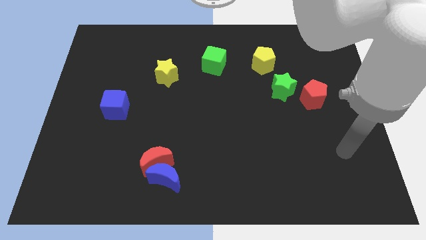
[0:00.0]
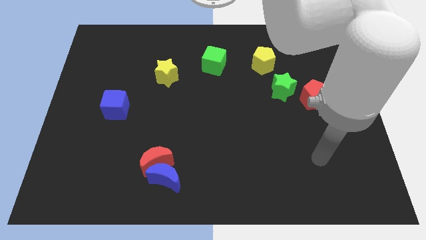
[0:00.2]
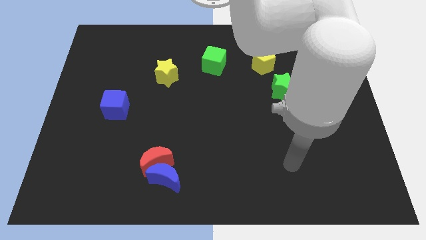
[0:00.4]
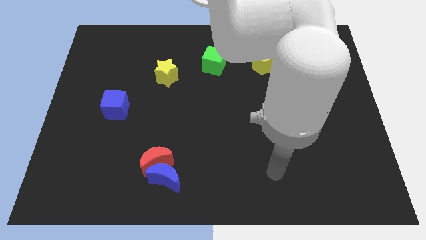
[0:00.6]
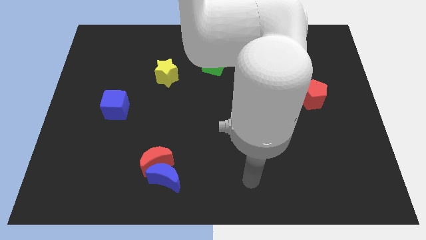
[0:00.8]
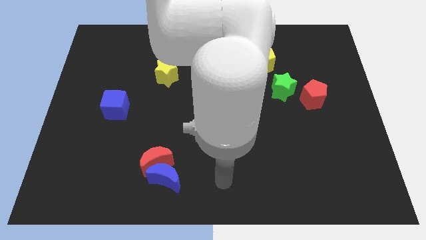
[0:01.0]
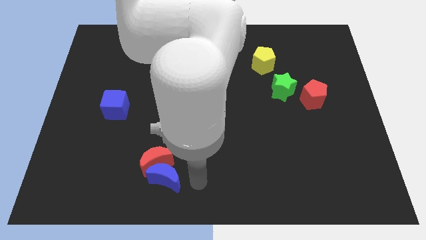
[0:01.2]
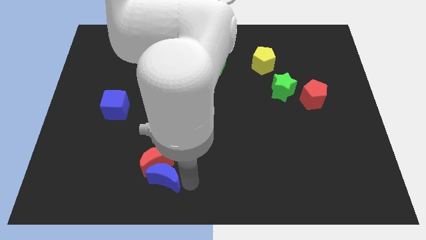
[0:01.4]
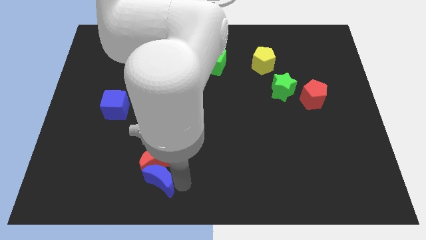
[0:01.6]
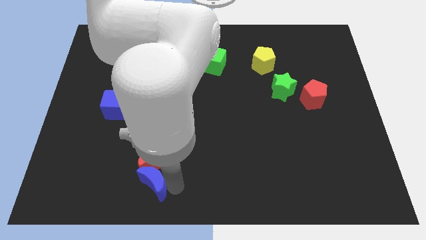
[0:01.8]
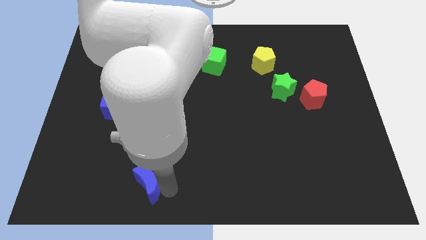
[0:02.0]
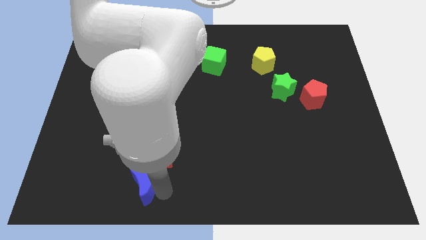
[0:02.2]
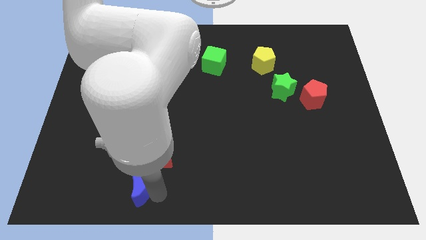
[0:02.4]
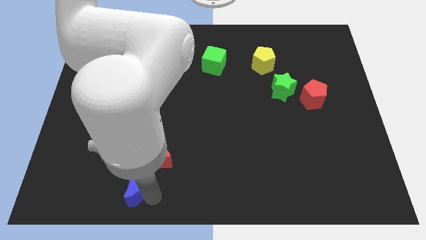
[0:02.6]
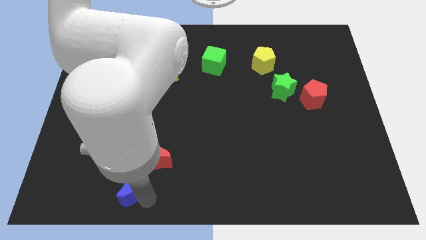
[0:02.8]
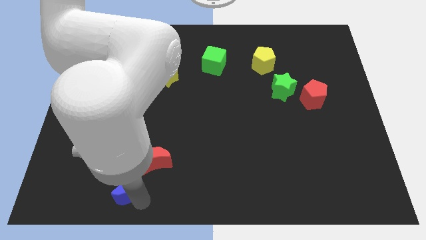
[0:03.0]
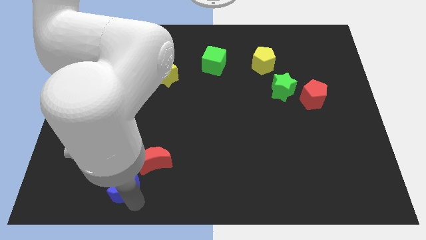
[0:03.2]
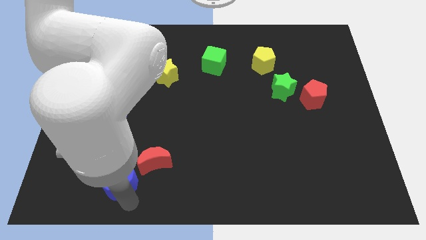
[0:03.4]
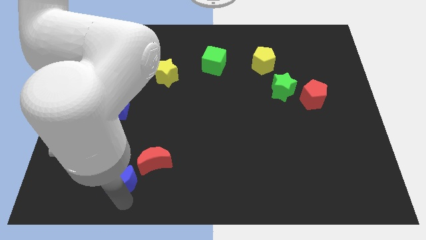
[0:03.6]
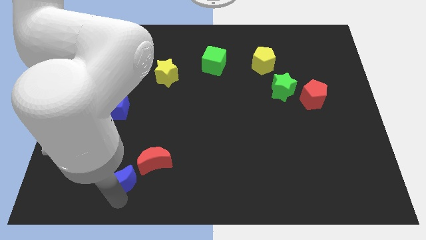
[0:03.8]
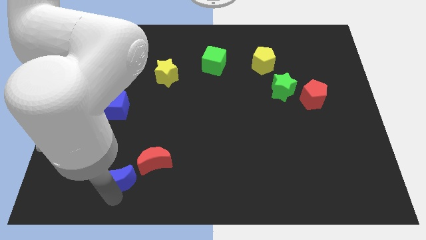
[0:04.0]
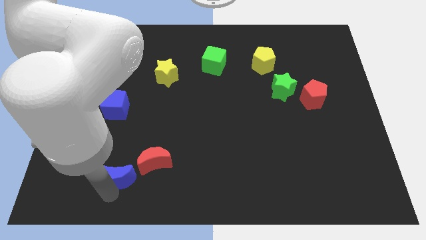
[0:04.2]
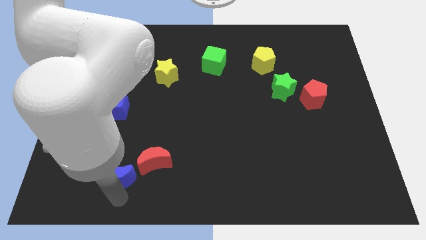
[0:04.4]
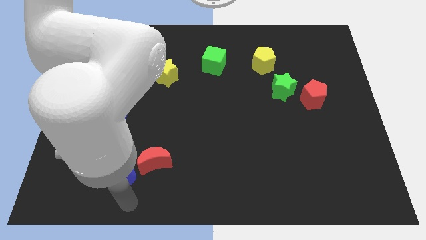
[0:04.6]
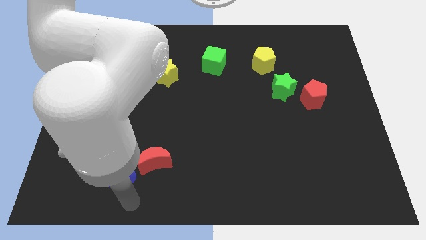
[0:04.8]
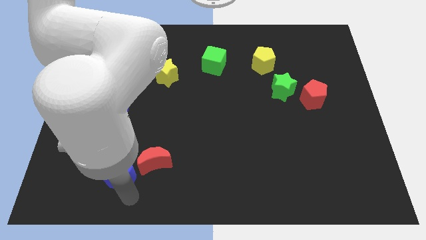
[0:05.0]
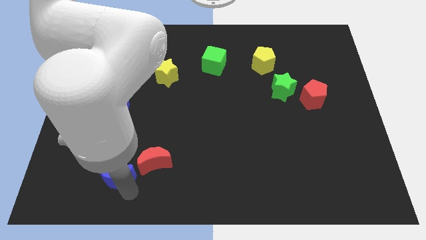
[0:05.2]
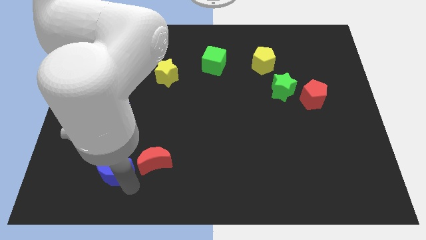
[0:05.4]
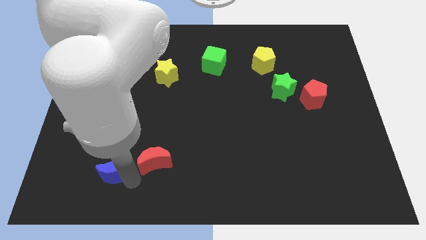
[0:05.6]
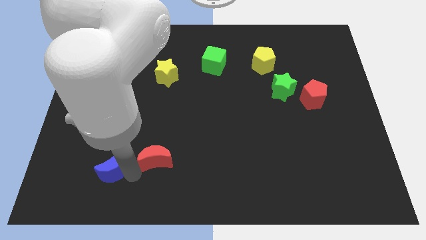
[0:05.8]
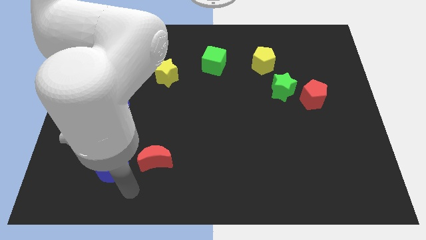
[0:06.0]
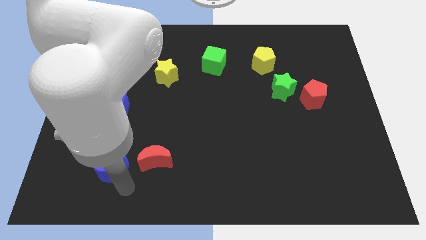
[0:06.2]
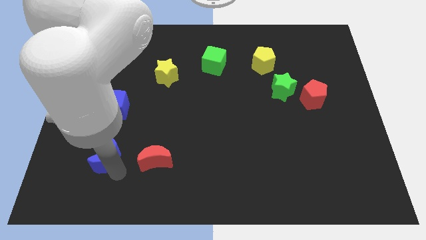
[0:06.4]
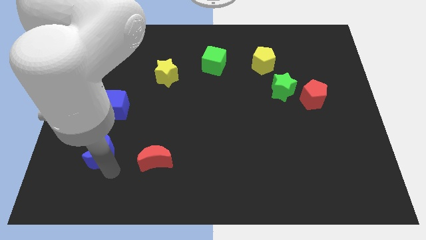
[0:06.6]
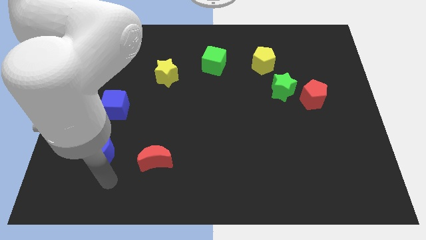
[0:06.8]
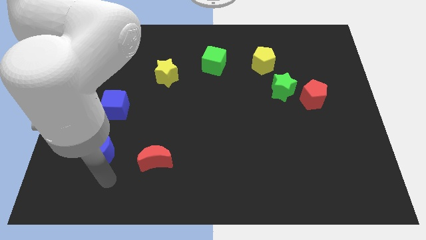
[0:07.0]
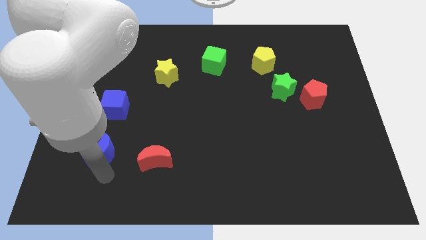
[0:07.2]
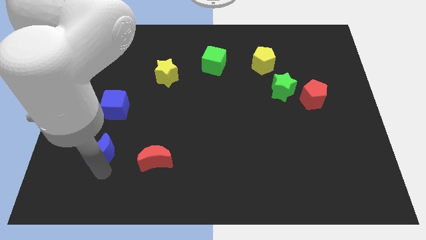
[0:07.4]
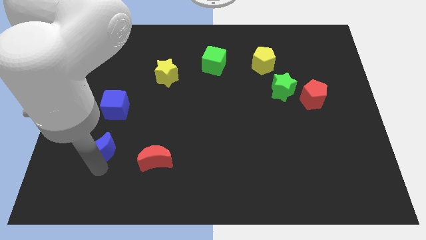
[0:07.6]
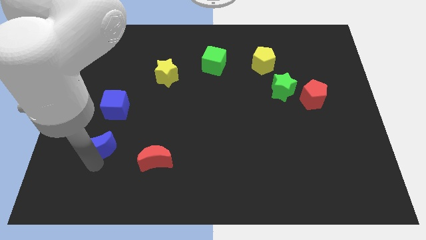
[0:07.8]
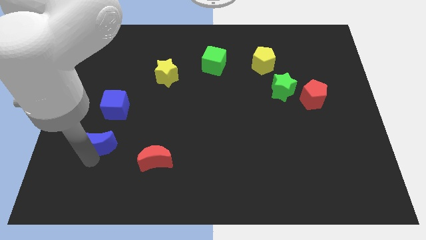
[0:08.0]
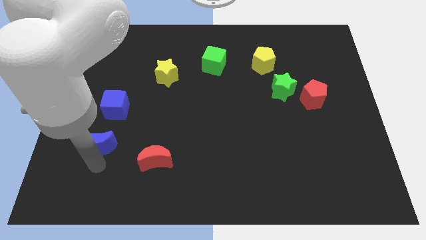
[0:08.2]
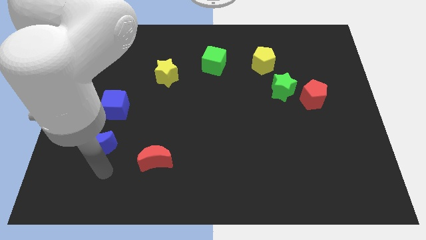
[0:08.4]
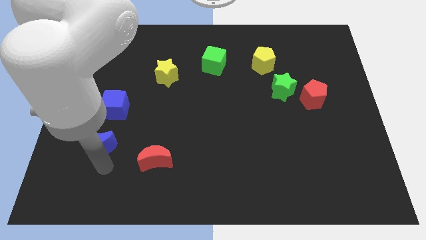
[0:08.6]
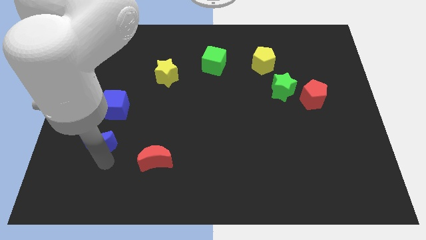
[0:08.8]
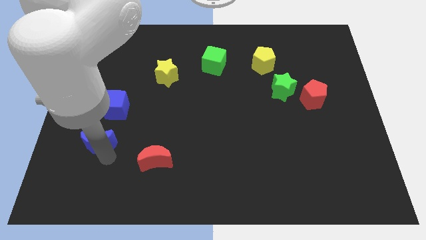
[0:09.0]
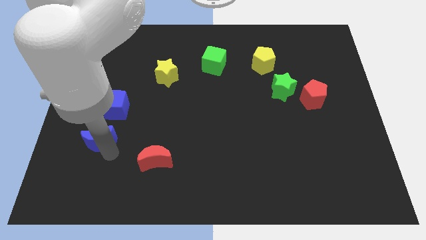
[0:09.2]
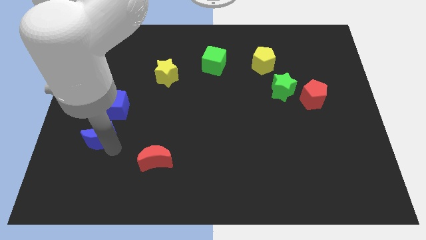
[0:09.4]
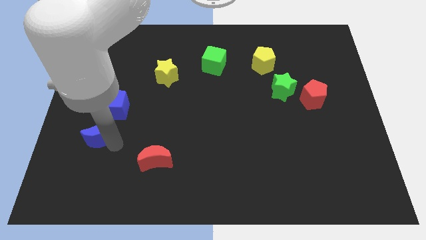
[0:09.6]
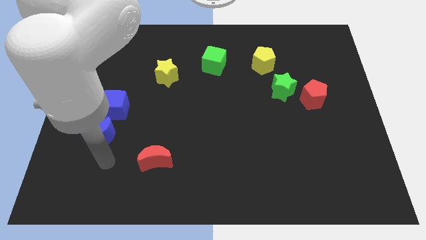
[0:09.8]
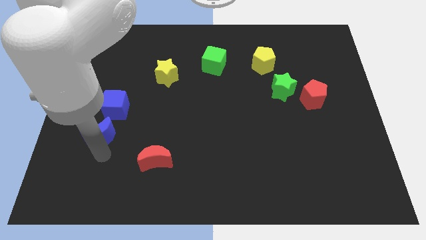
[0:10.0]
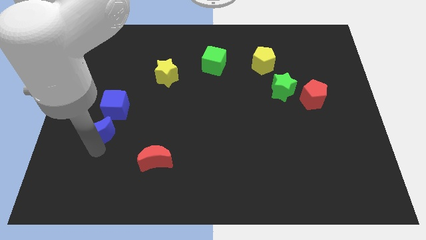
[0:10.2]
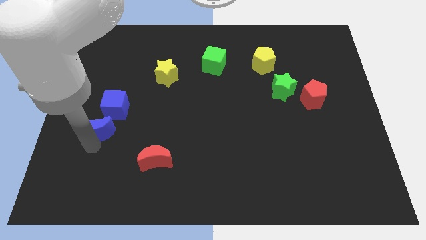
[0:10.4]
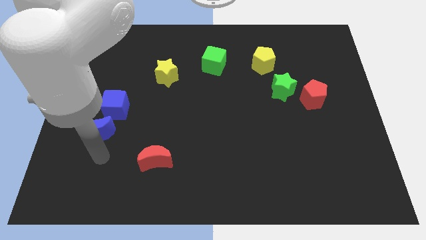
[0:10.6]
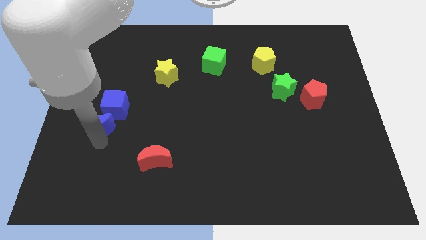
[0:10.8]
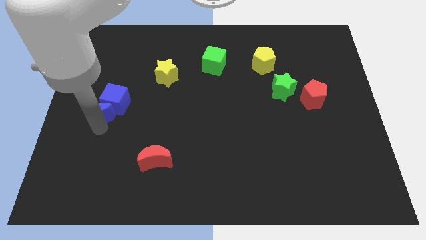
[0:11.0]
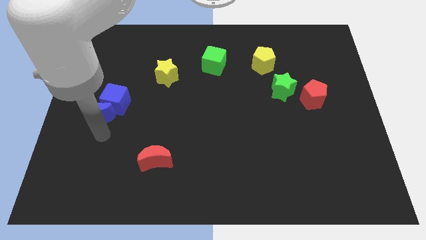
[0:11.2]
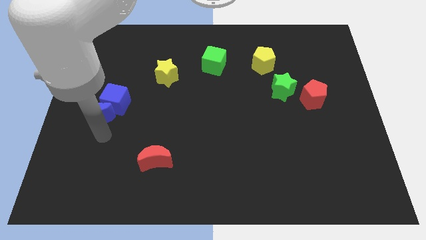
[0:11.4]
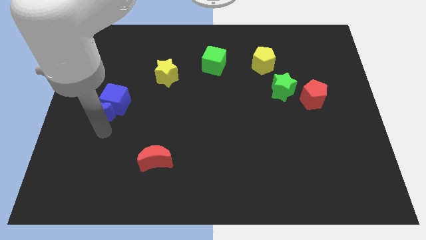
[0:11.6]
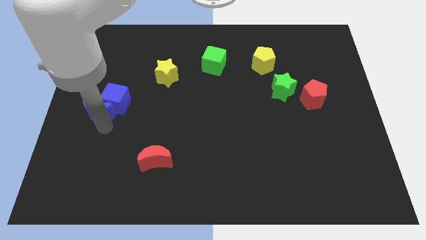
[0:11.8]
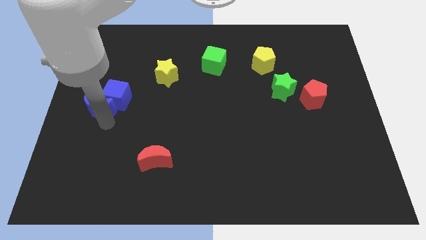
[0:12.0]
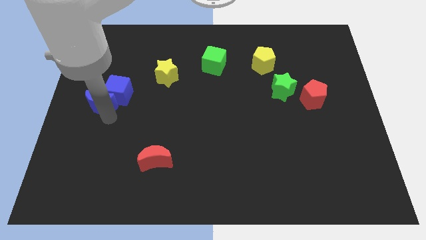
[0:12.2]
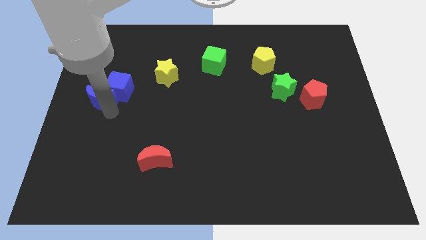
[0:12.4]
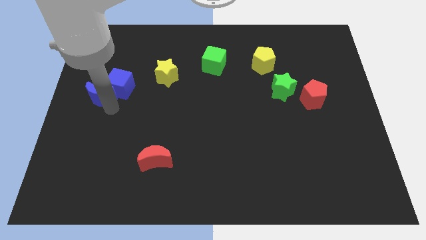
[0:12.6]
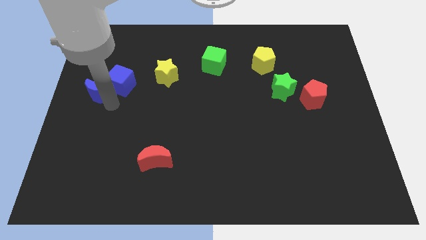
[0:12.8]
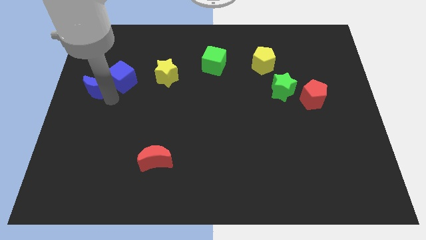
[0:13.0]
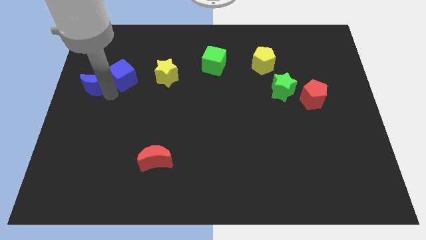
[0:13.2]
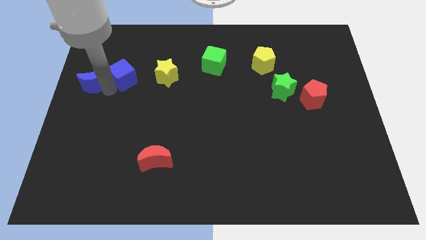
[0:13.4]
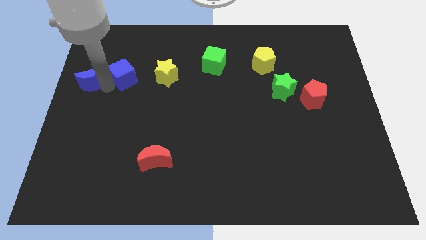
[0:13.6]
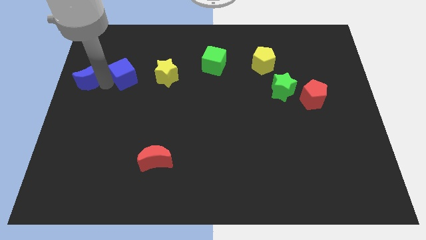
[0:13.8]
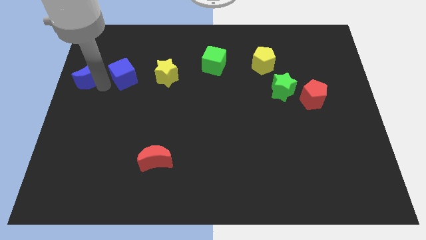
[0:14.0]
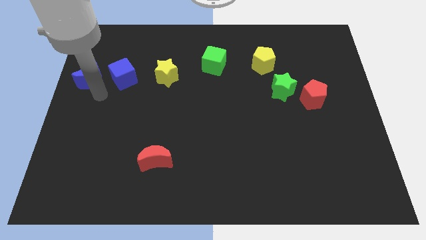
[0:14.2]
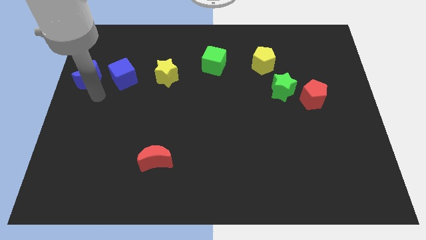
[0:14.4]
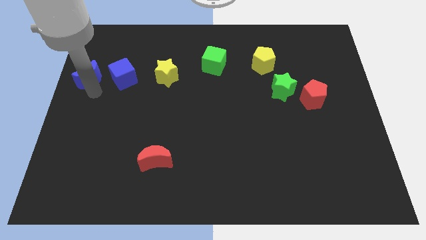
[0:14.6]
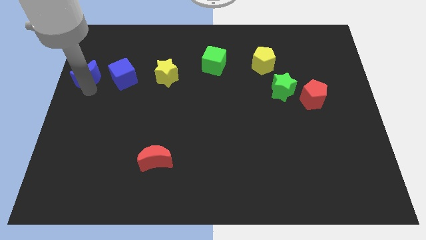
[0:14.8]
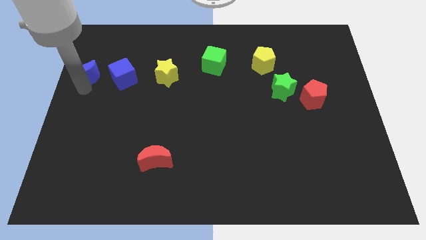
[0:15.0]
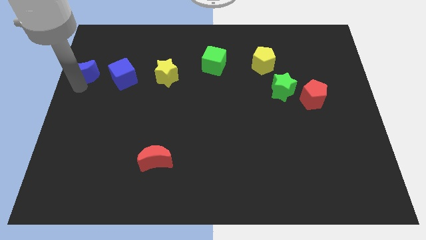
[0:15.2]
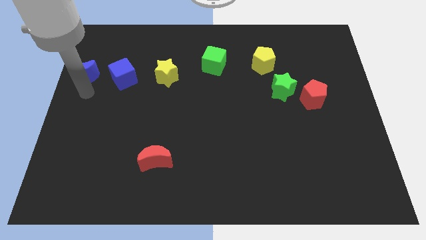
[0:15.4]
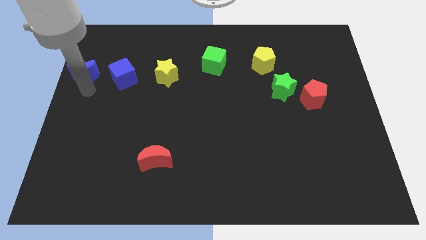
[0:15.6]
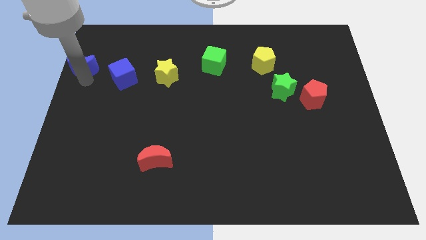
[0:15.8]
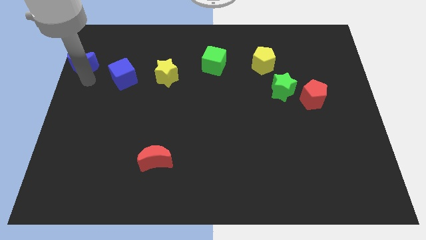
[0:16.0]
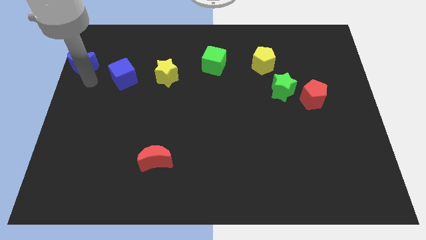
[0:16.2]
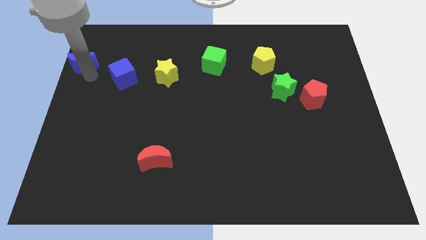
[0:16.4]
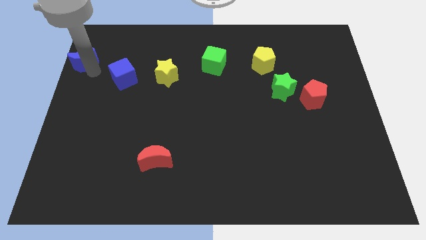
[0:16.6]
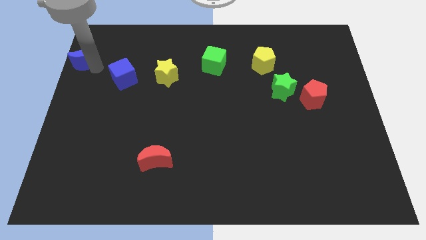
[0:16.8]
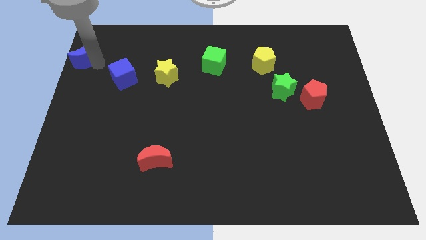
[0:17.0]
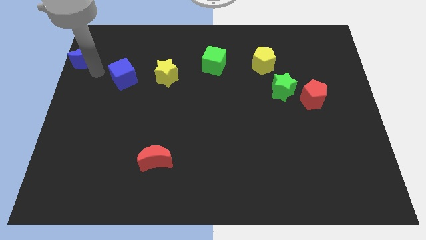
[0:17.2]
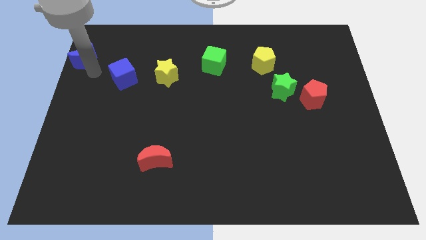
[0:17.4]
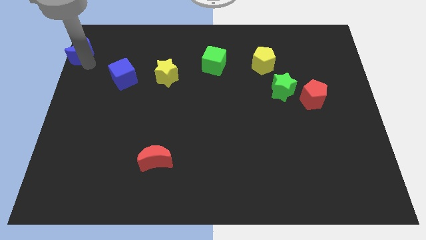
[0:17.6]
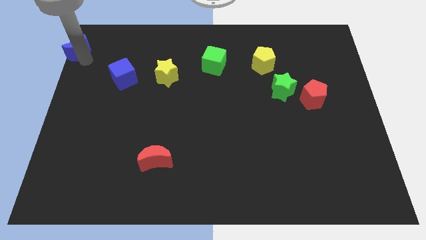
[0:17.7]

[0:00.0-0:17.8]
put the blue moon to the top left of the board
